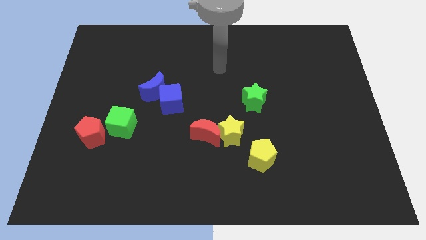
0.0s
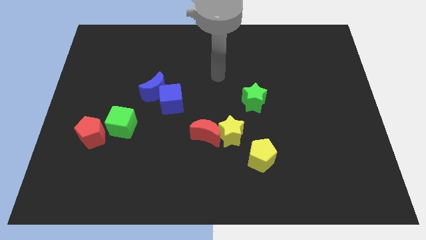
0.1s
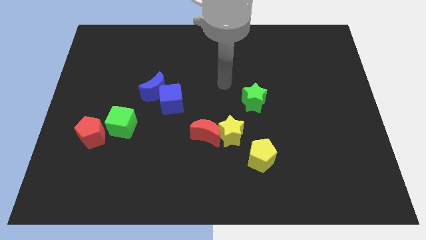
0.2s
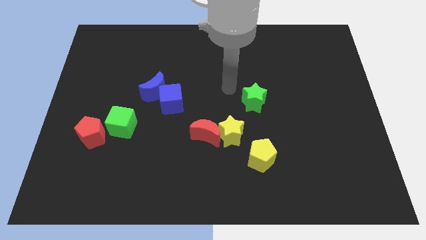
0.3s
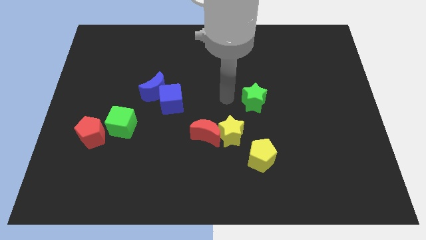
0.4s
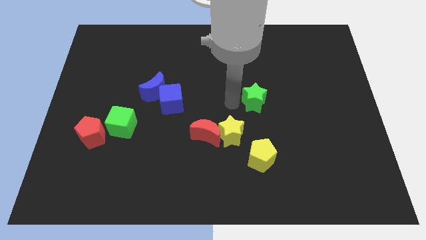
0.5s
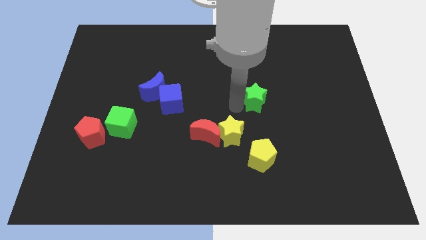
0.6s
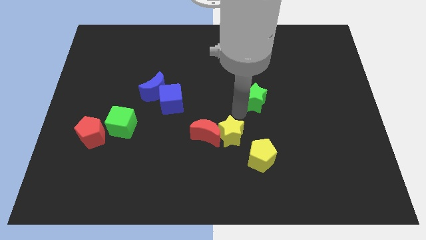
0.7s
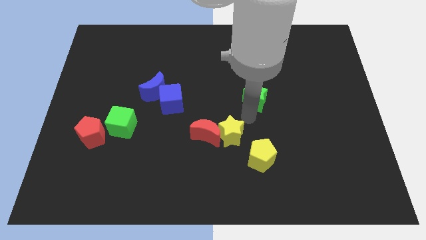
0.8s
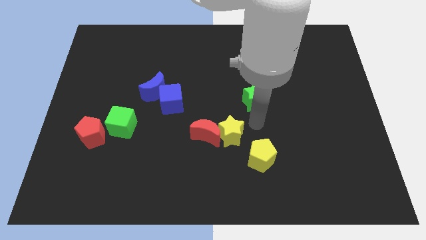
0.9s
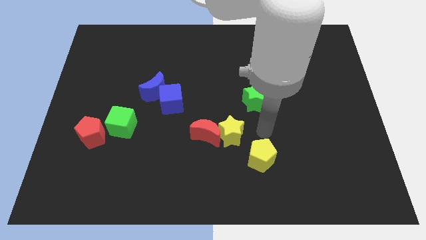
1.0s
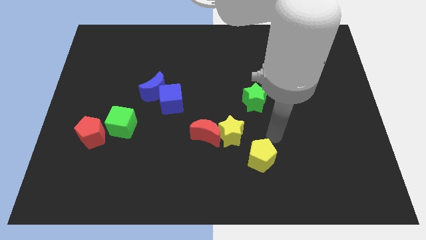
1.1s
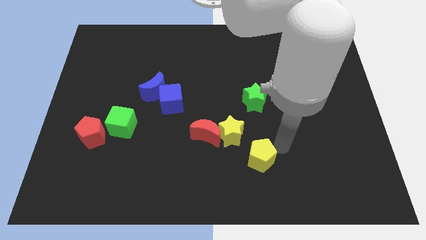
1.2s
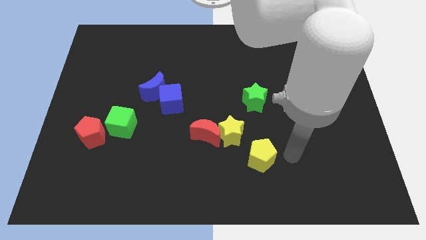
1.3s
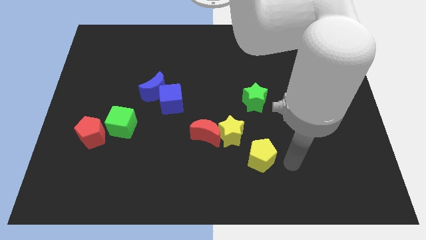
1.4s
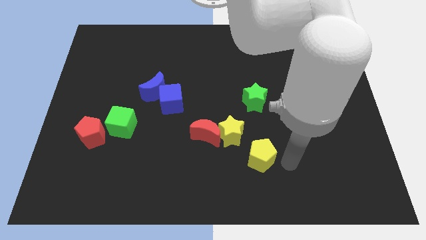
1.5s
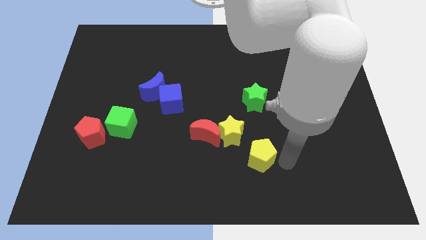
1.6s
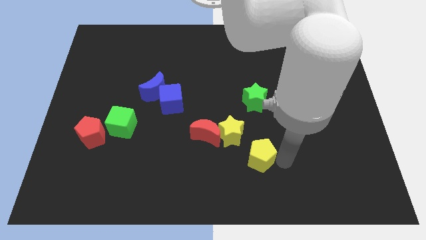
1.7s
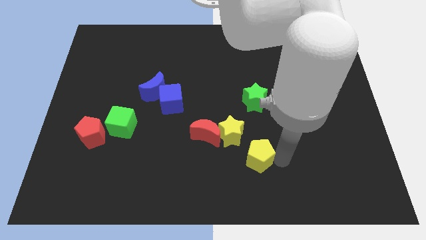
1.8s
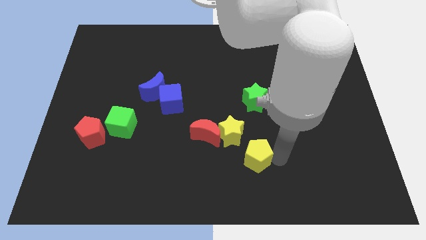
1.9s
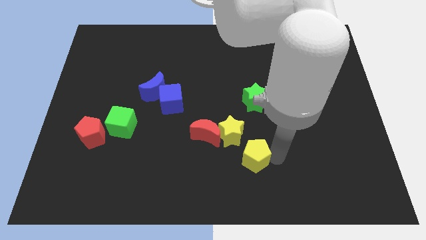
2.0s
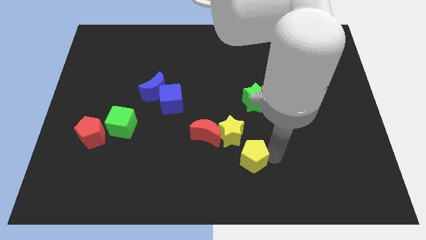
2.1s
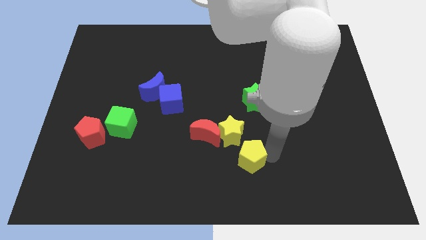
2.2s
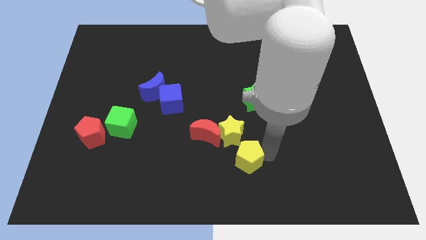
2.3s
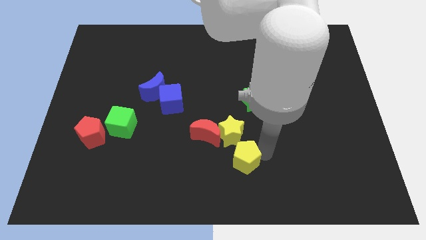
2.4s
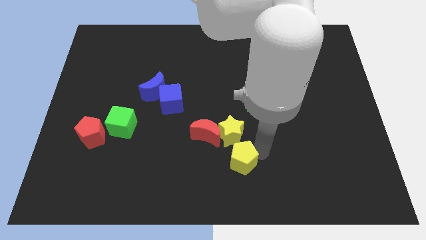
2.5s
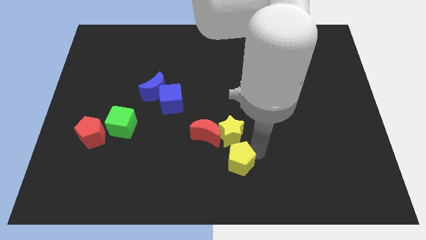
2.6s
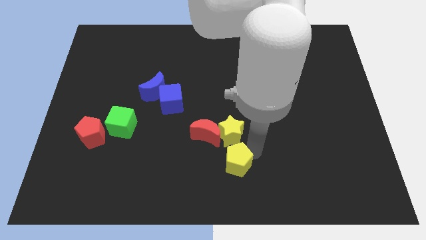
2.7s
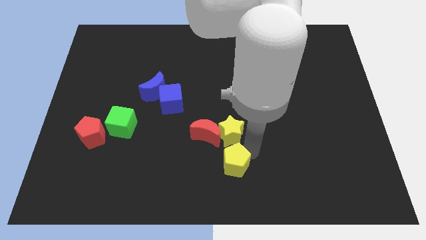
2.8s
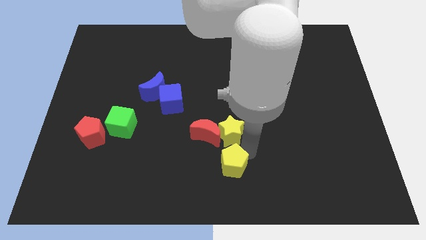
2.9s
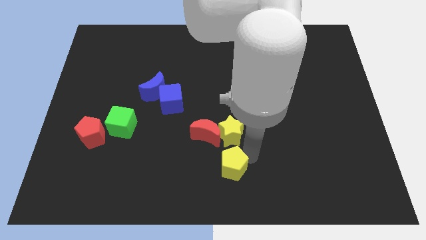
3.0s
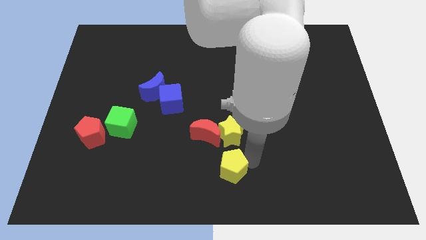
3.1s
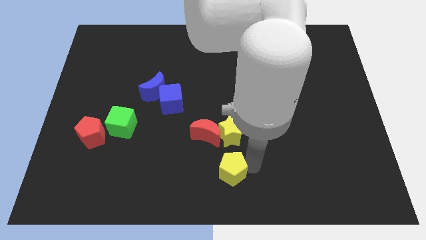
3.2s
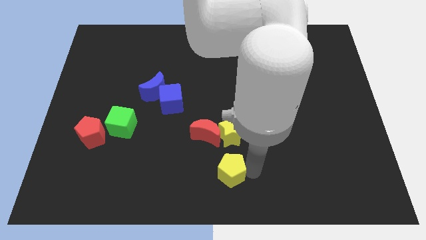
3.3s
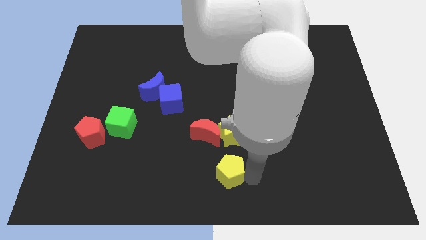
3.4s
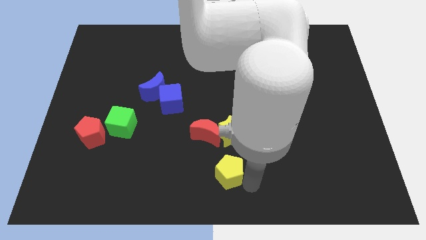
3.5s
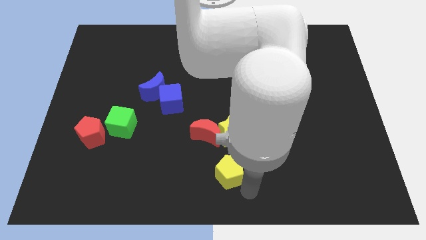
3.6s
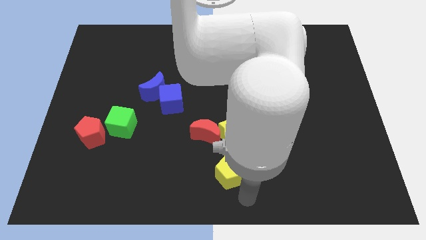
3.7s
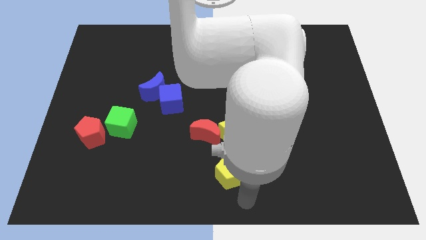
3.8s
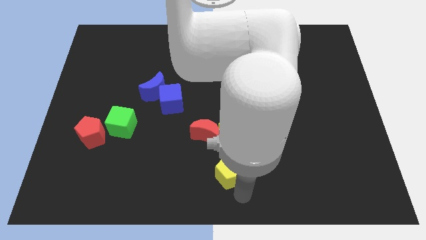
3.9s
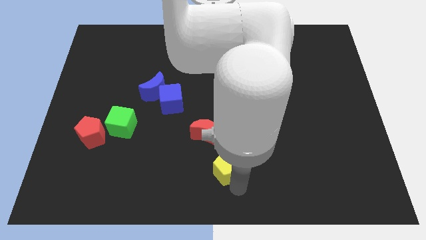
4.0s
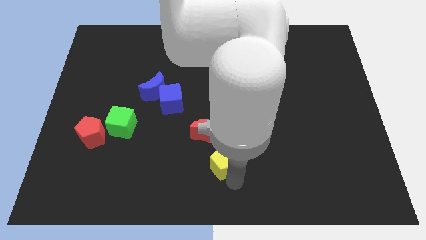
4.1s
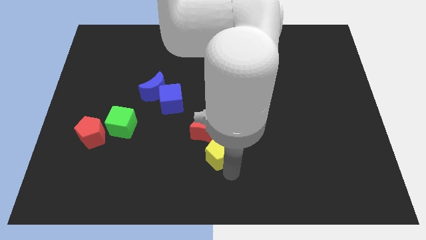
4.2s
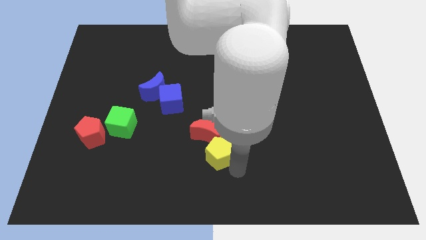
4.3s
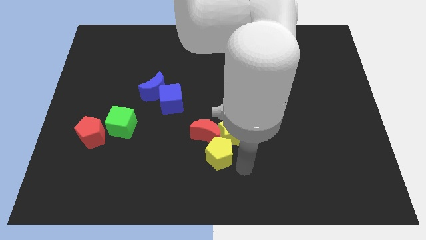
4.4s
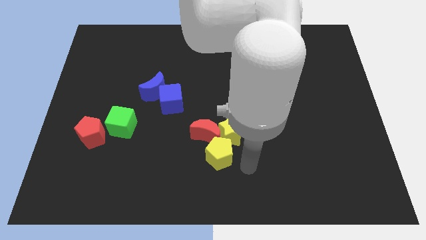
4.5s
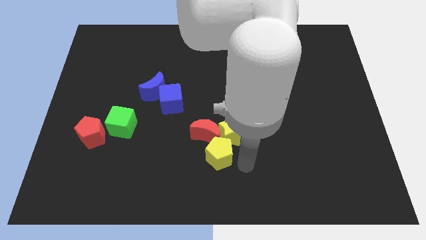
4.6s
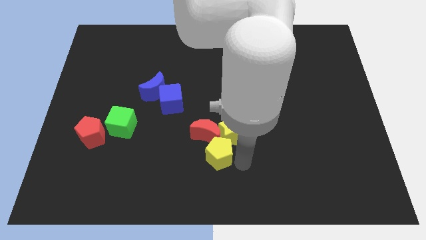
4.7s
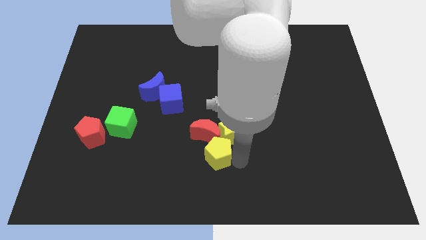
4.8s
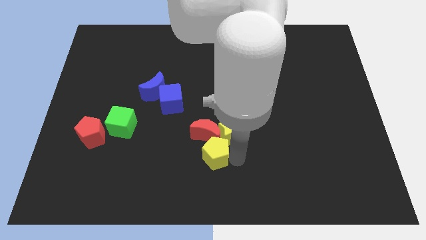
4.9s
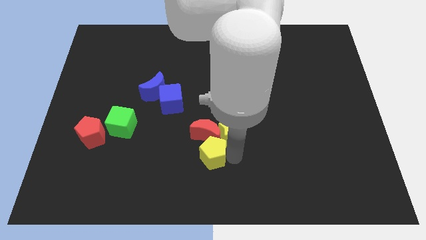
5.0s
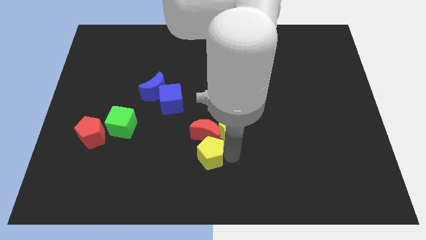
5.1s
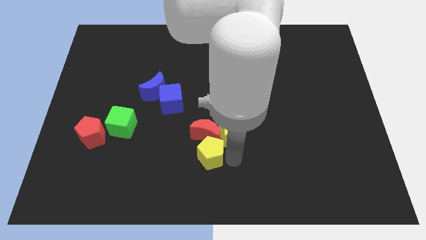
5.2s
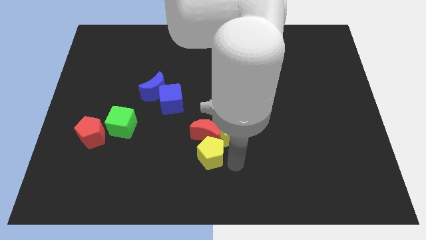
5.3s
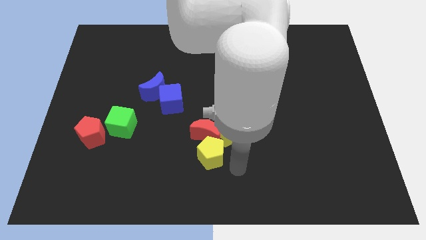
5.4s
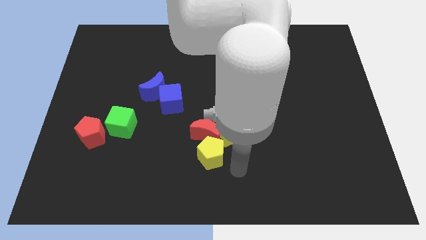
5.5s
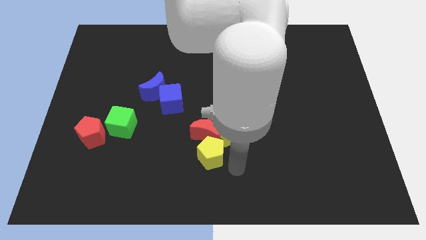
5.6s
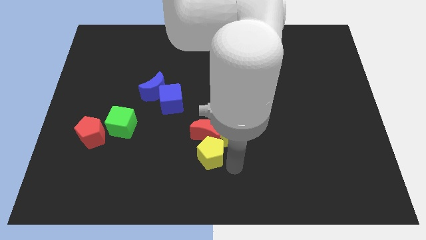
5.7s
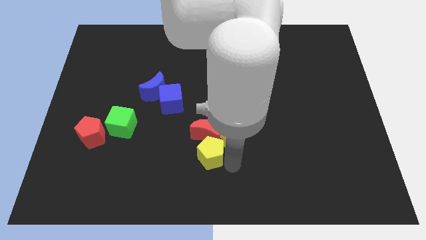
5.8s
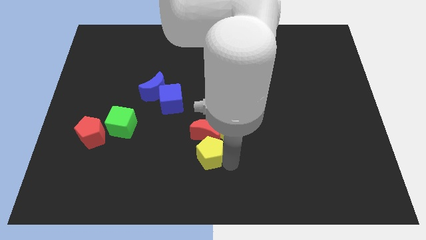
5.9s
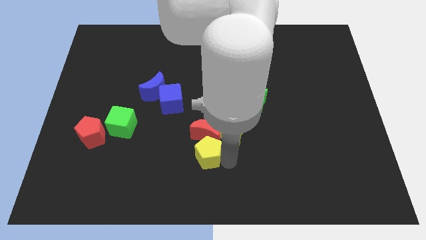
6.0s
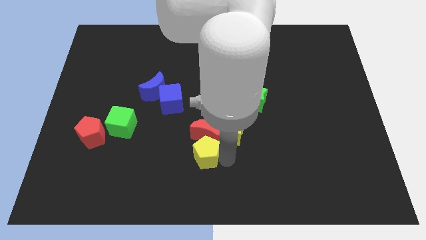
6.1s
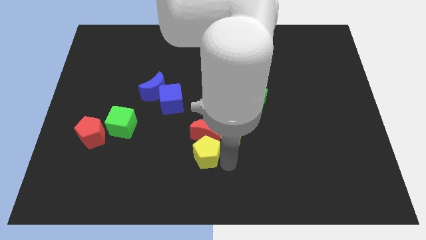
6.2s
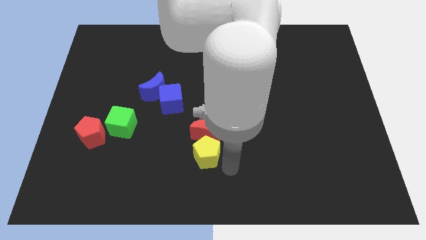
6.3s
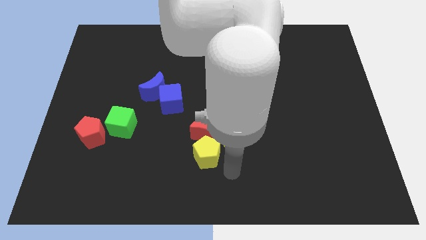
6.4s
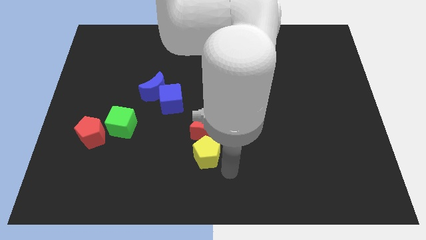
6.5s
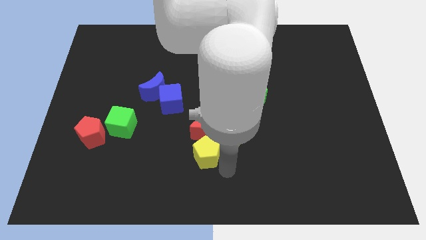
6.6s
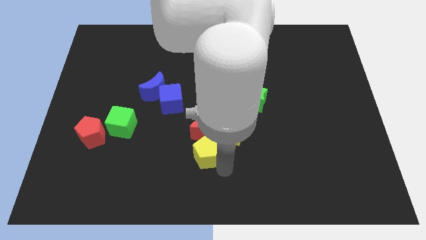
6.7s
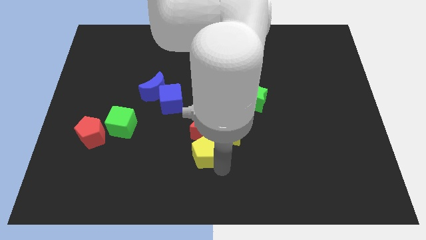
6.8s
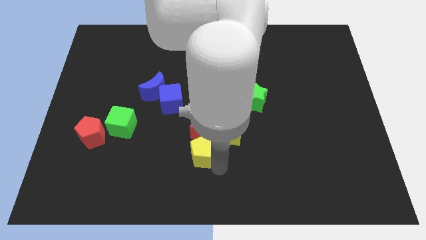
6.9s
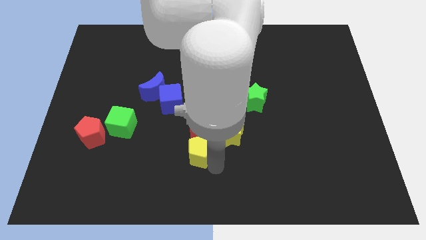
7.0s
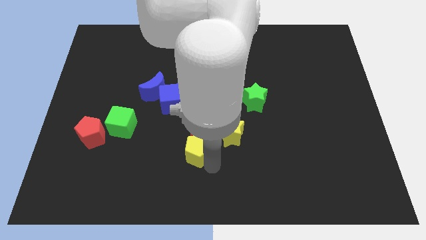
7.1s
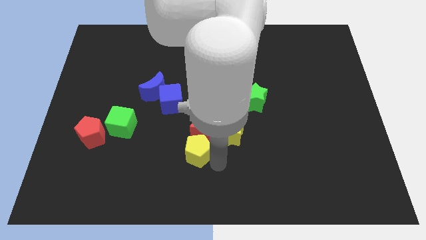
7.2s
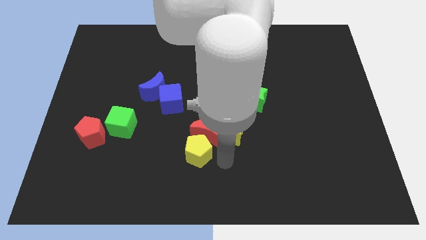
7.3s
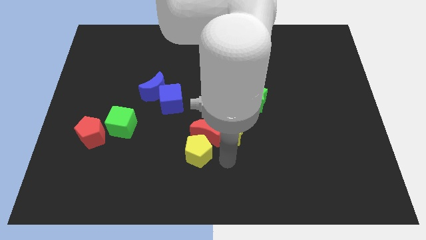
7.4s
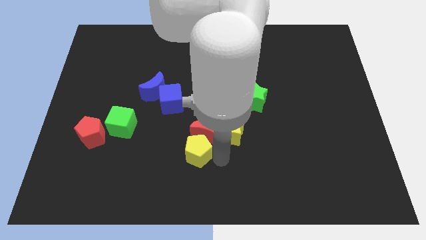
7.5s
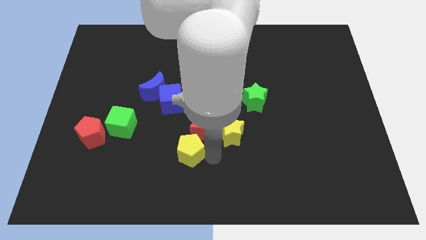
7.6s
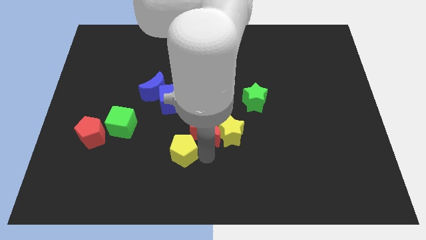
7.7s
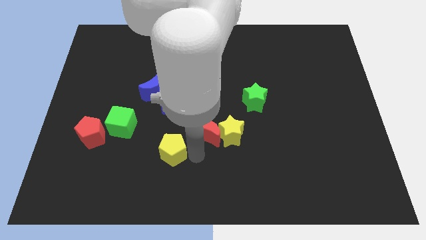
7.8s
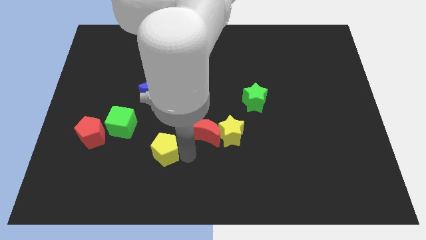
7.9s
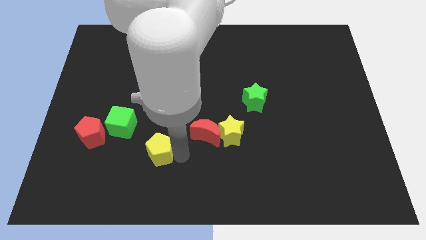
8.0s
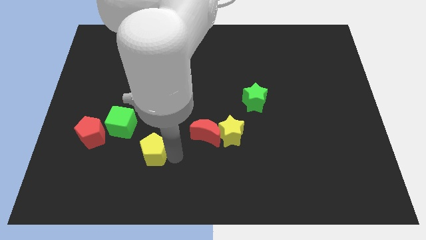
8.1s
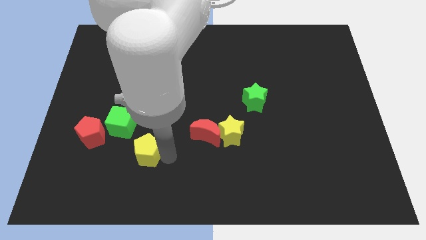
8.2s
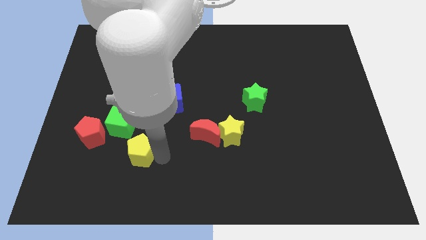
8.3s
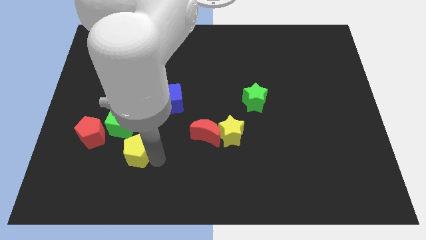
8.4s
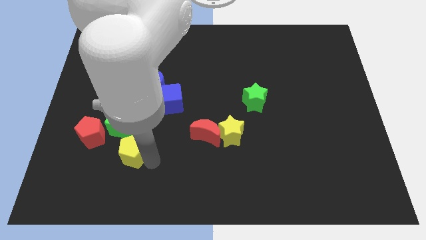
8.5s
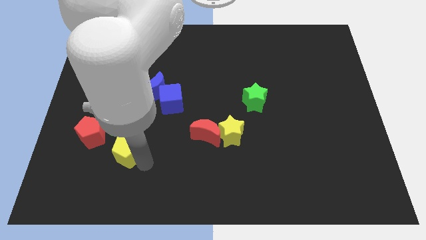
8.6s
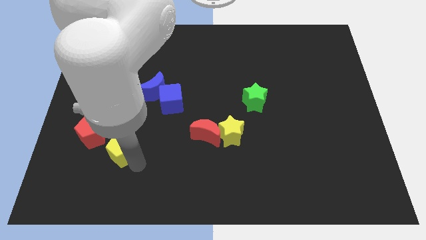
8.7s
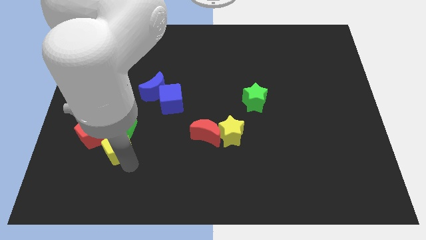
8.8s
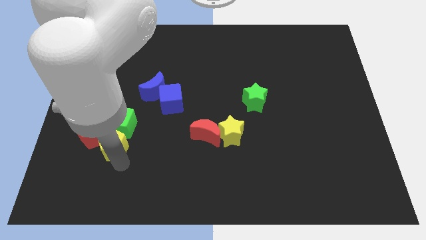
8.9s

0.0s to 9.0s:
put the yellow pentagon close to the green cube
